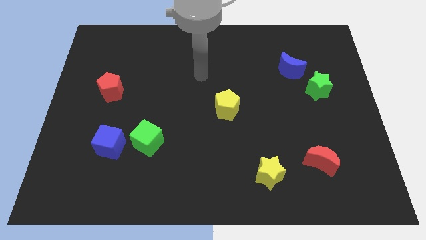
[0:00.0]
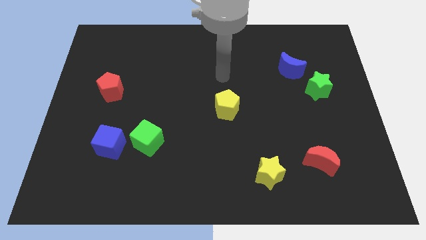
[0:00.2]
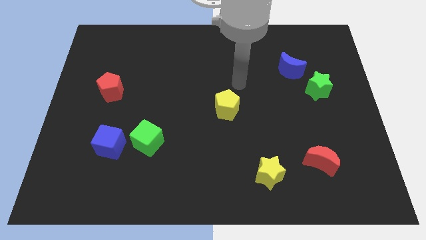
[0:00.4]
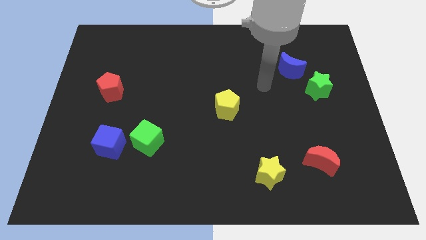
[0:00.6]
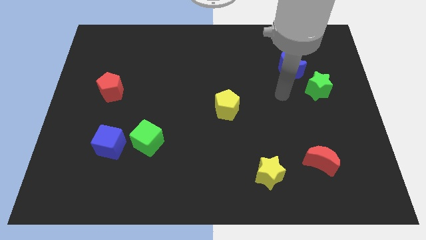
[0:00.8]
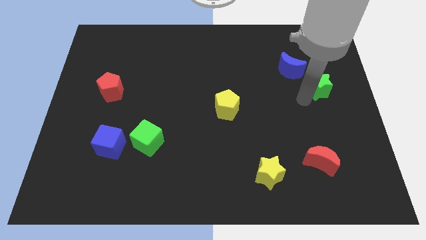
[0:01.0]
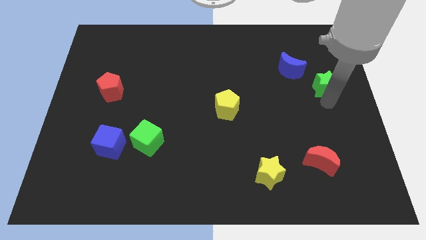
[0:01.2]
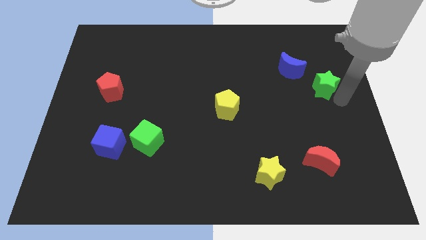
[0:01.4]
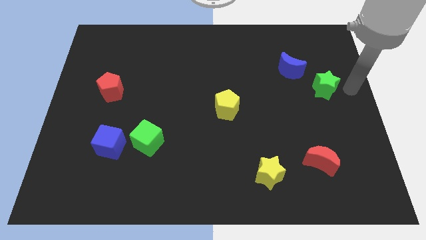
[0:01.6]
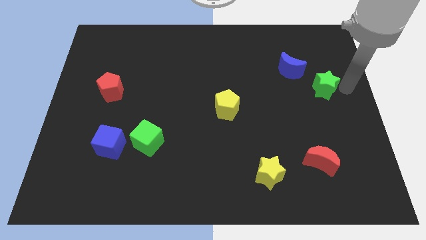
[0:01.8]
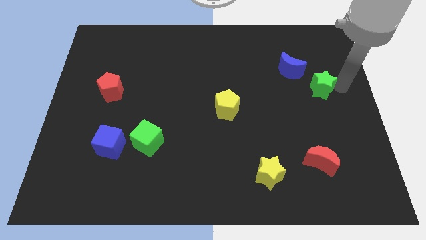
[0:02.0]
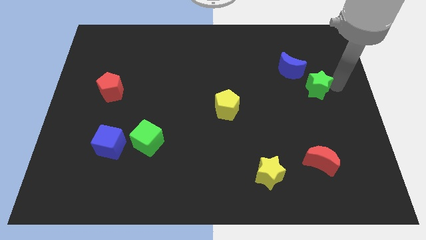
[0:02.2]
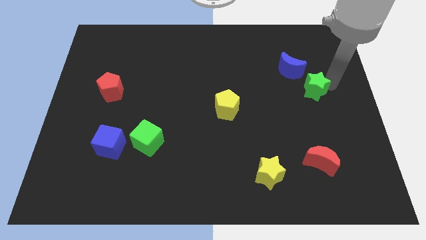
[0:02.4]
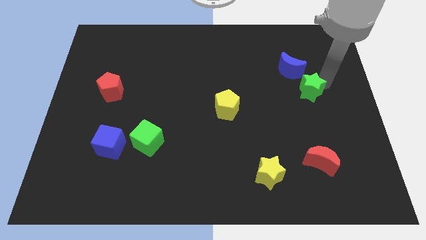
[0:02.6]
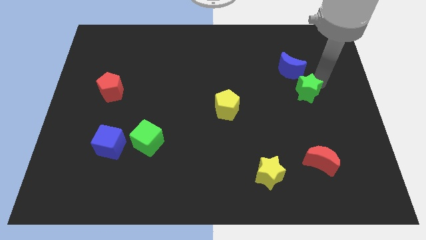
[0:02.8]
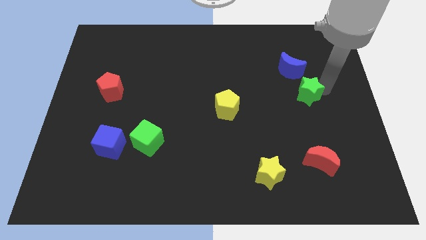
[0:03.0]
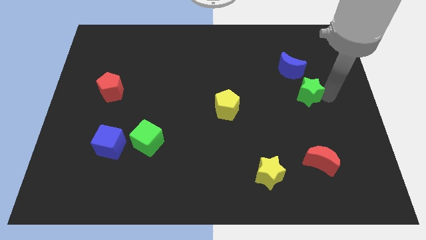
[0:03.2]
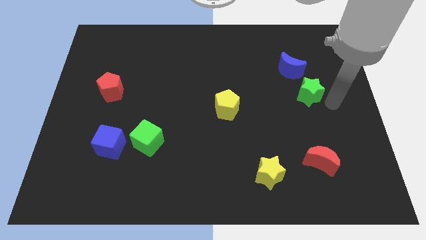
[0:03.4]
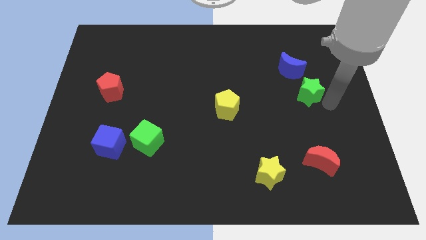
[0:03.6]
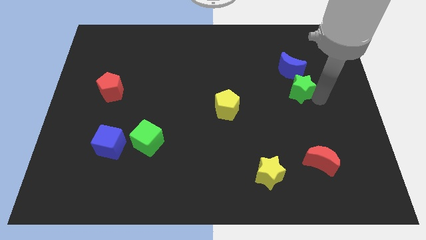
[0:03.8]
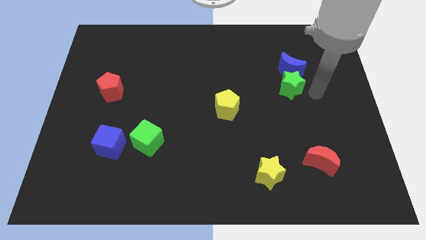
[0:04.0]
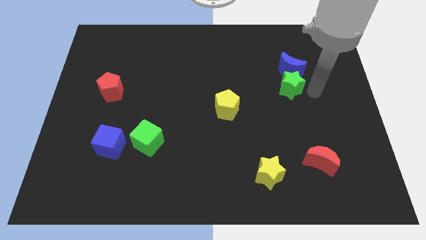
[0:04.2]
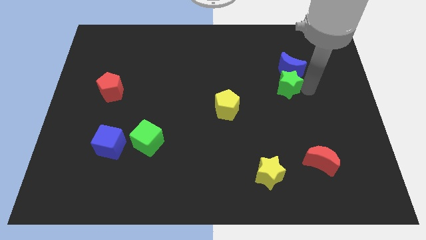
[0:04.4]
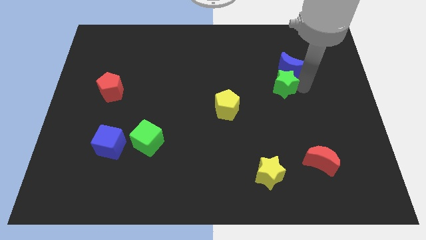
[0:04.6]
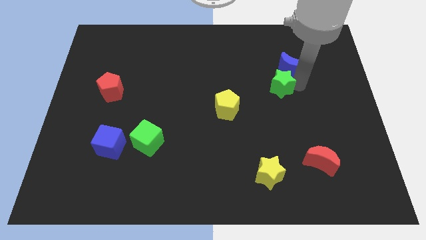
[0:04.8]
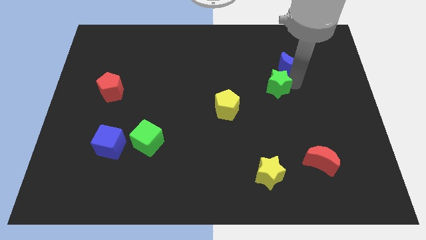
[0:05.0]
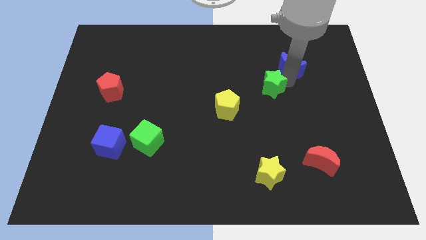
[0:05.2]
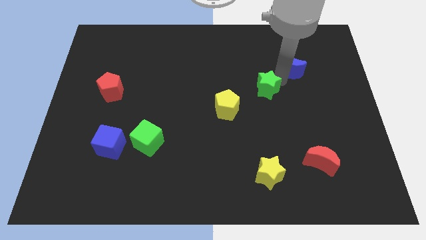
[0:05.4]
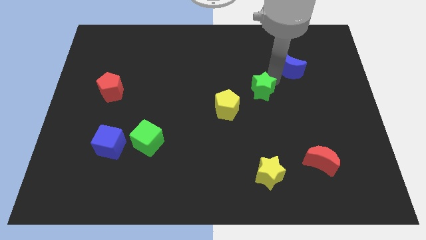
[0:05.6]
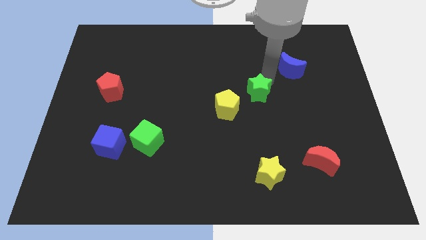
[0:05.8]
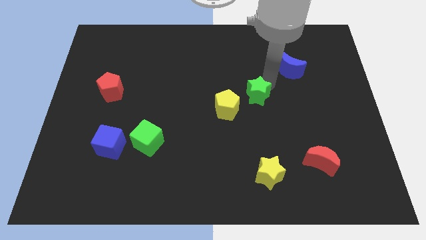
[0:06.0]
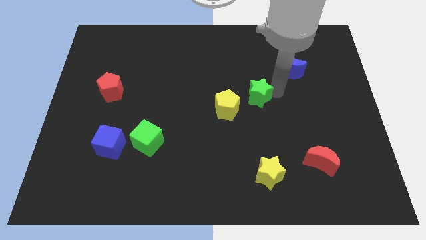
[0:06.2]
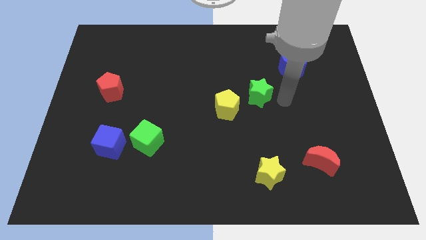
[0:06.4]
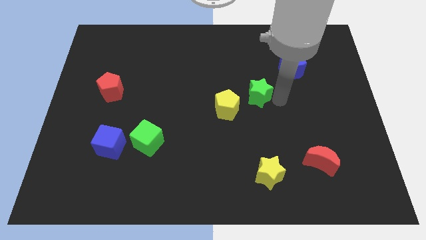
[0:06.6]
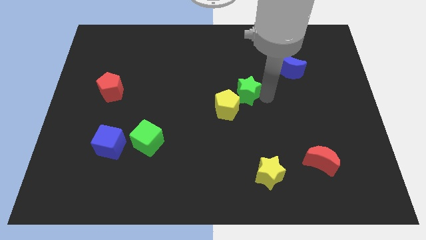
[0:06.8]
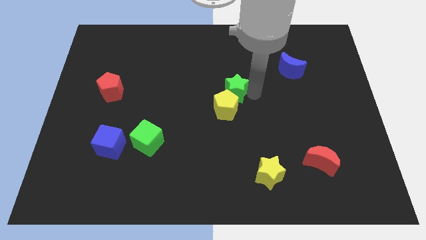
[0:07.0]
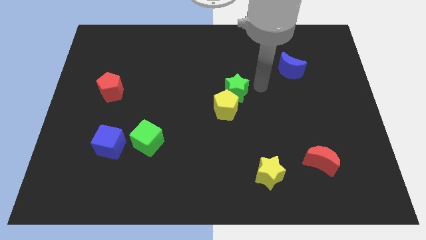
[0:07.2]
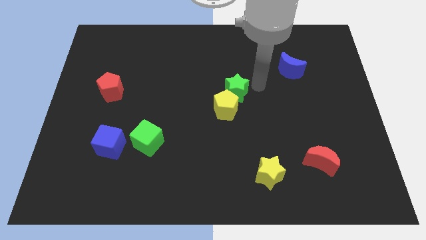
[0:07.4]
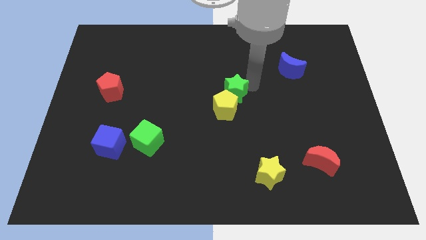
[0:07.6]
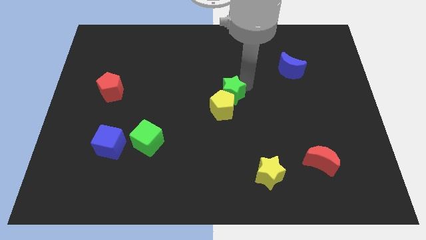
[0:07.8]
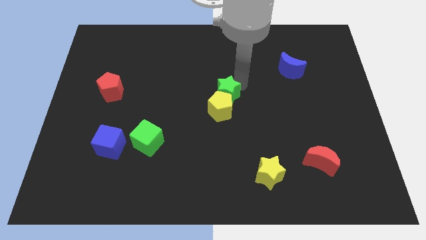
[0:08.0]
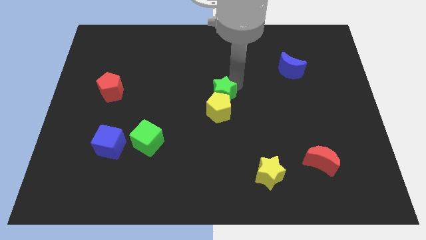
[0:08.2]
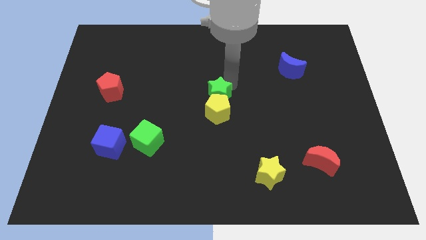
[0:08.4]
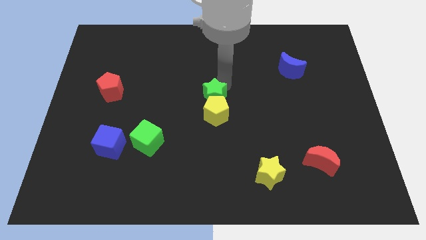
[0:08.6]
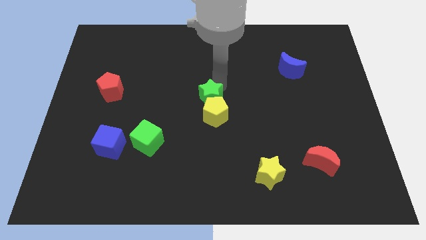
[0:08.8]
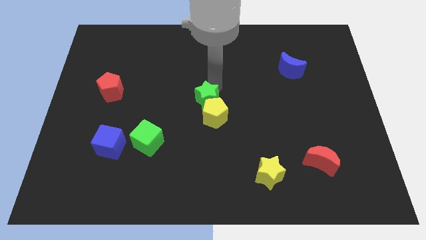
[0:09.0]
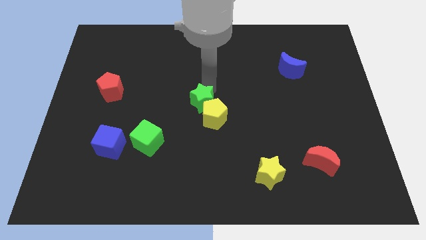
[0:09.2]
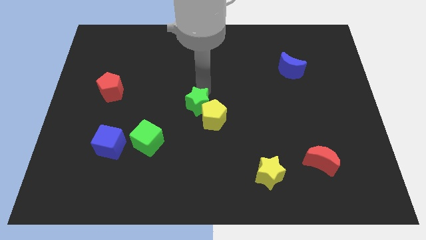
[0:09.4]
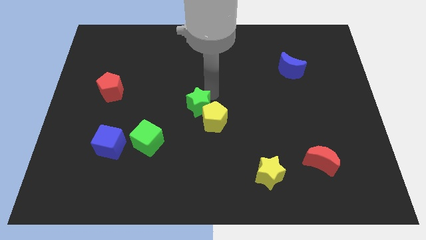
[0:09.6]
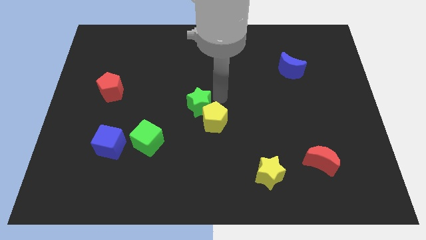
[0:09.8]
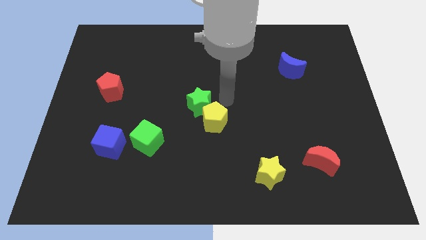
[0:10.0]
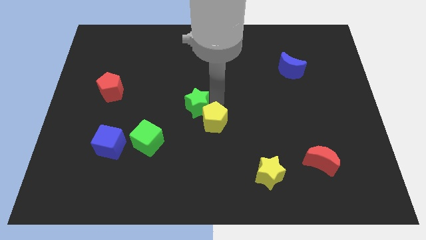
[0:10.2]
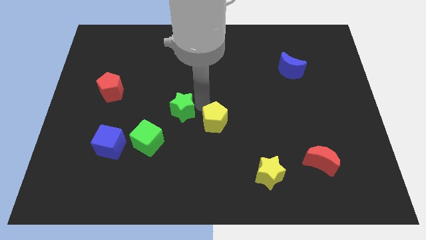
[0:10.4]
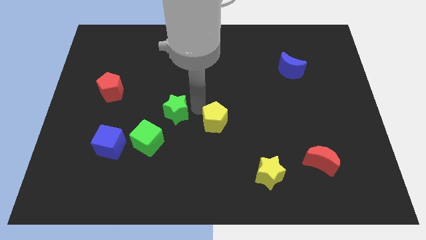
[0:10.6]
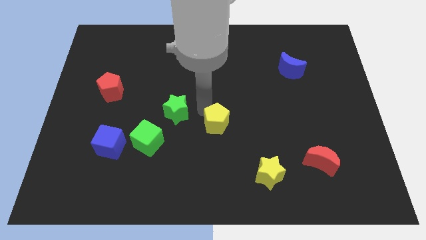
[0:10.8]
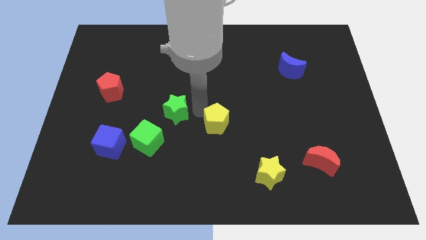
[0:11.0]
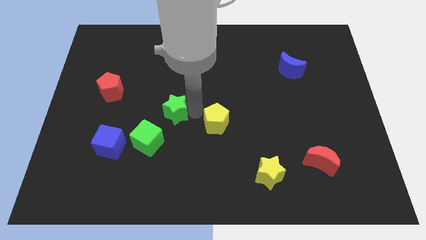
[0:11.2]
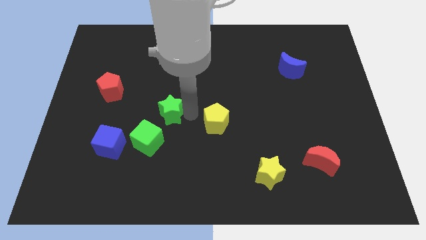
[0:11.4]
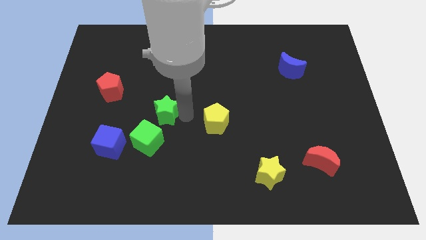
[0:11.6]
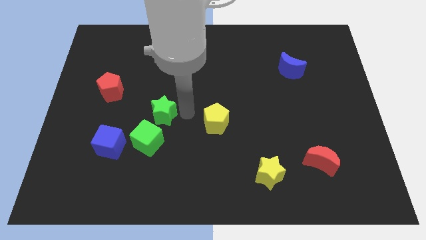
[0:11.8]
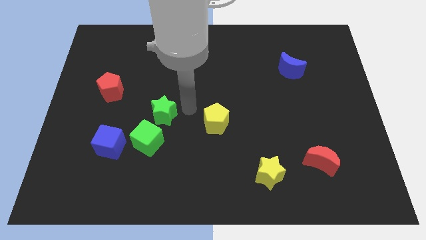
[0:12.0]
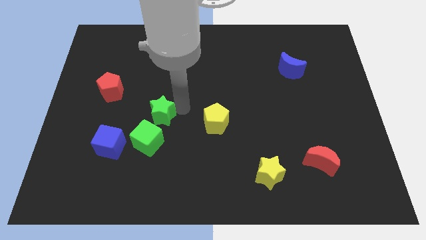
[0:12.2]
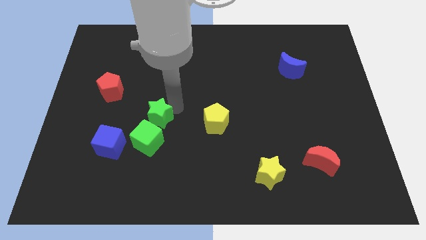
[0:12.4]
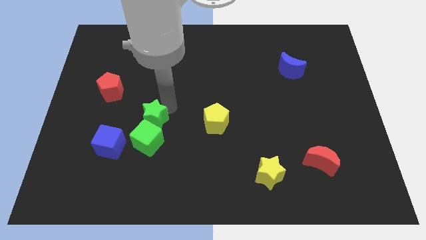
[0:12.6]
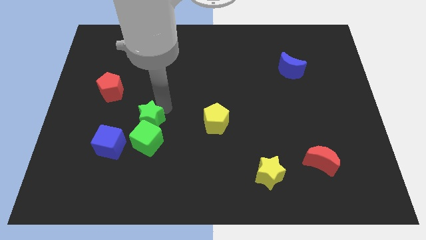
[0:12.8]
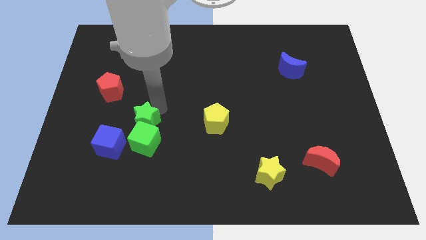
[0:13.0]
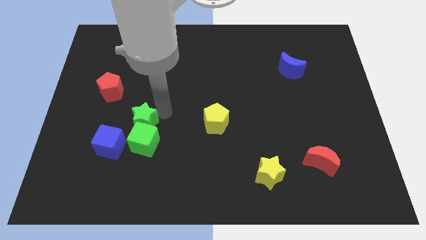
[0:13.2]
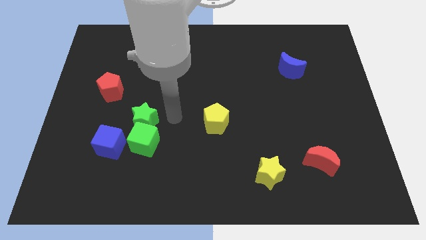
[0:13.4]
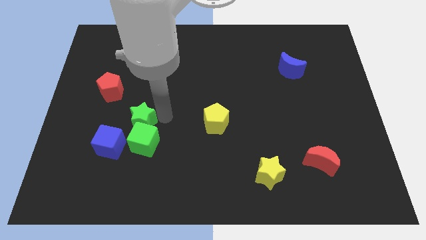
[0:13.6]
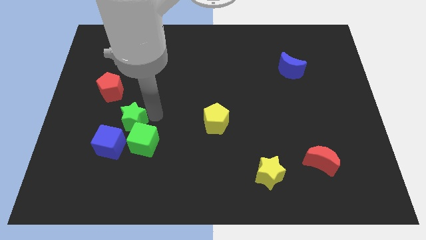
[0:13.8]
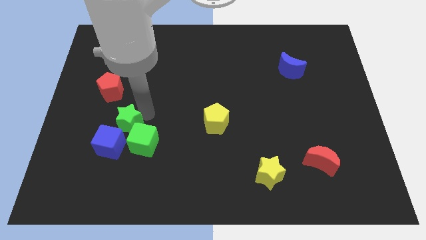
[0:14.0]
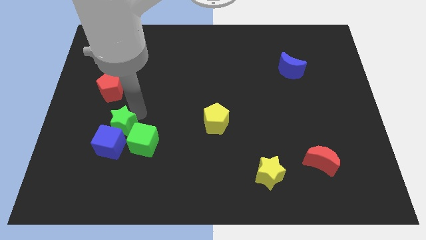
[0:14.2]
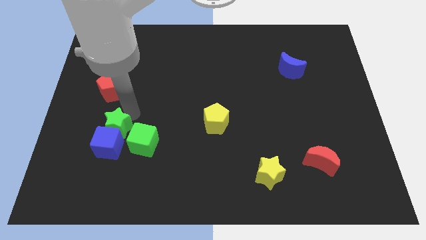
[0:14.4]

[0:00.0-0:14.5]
move the green star to the top left of the blue cube
